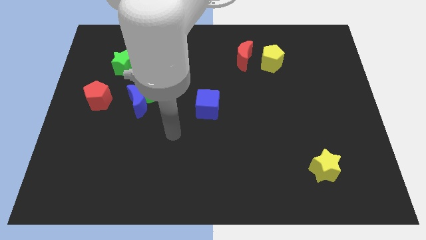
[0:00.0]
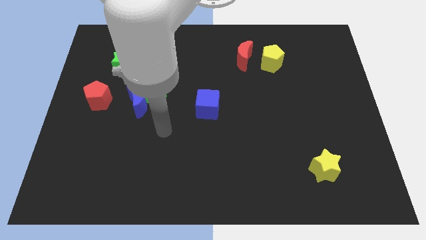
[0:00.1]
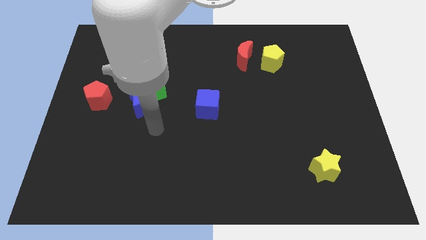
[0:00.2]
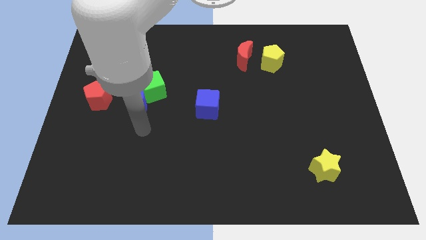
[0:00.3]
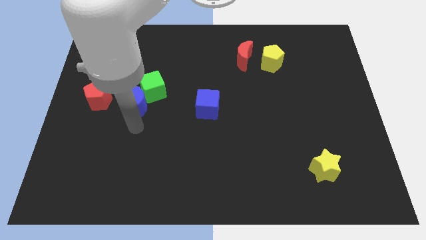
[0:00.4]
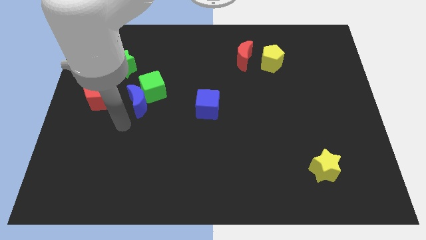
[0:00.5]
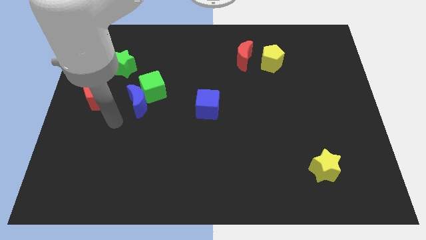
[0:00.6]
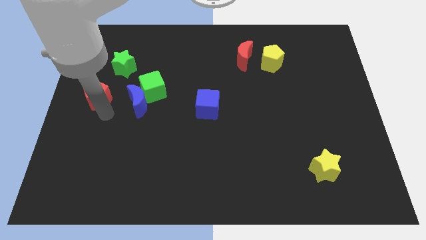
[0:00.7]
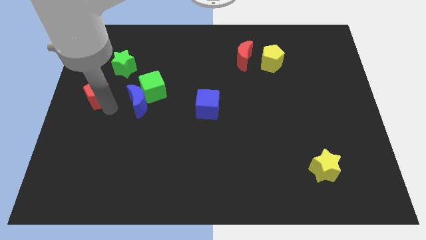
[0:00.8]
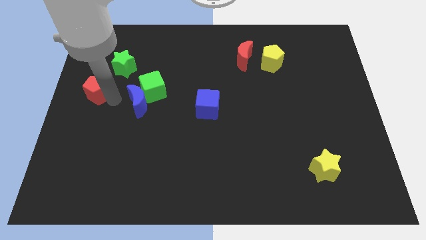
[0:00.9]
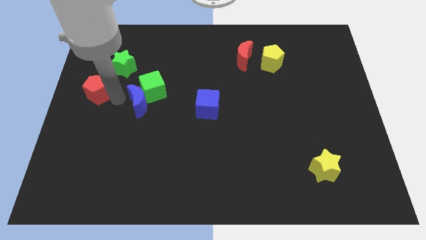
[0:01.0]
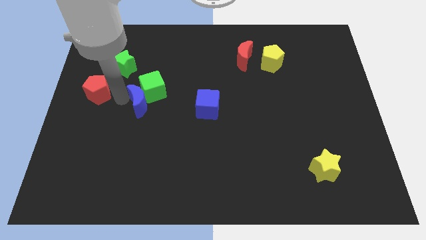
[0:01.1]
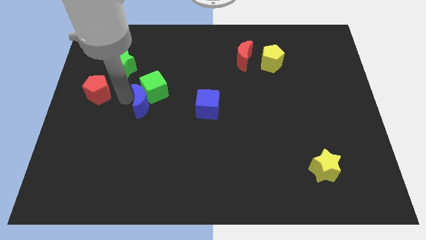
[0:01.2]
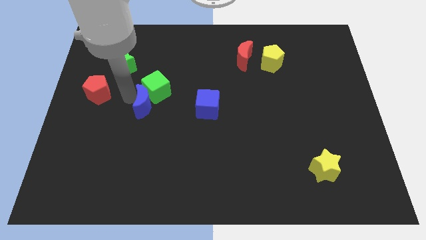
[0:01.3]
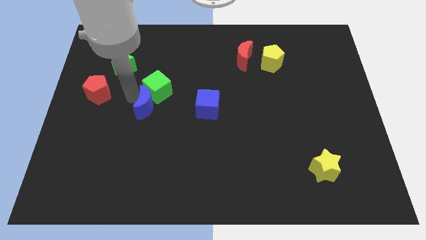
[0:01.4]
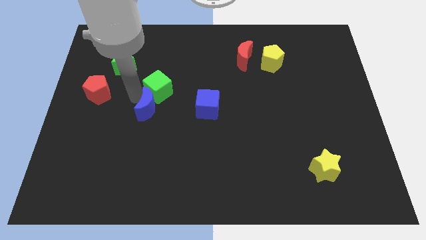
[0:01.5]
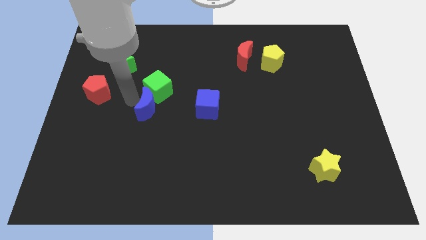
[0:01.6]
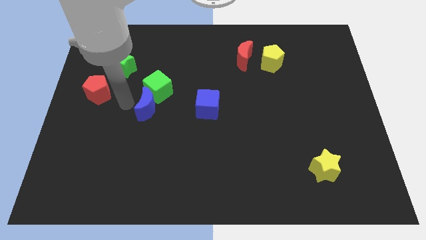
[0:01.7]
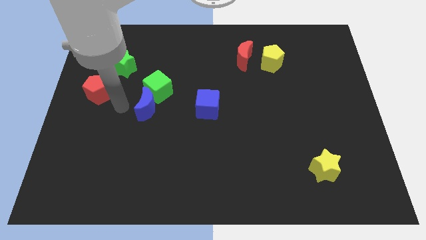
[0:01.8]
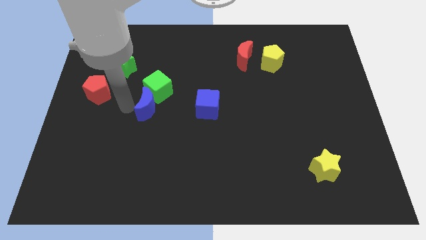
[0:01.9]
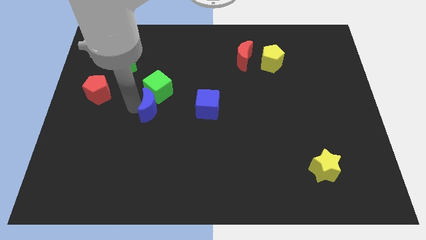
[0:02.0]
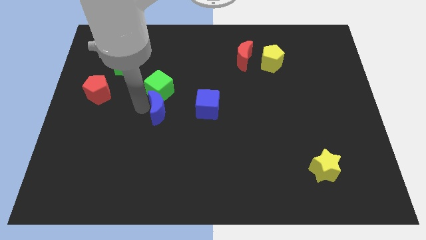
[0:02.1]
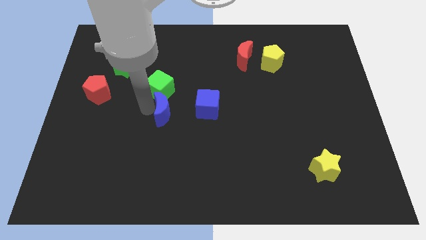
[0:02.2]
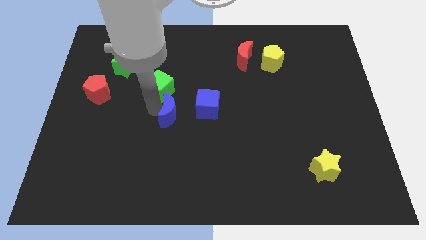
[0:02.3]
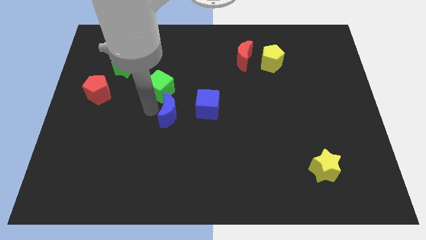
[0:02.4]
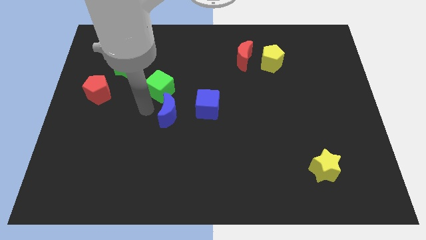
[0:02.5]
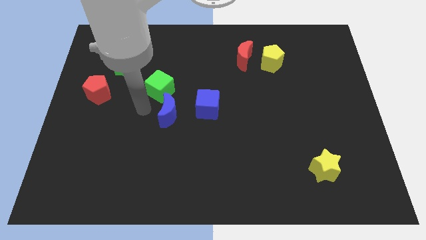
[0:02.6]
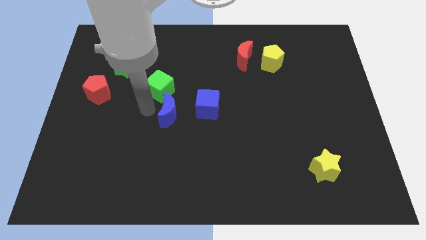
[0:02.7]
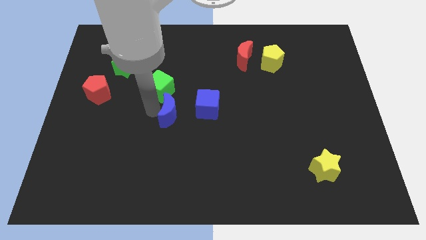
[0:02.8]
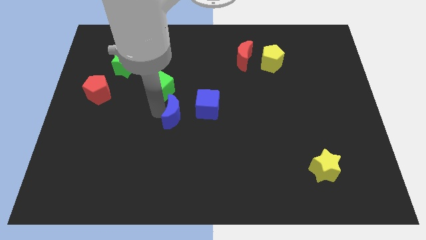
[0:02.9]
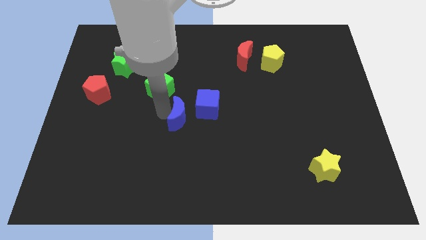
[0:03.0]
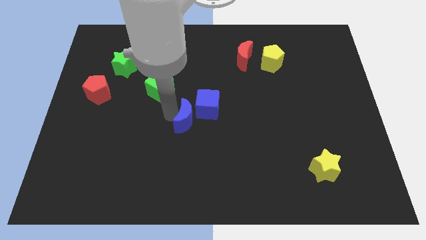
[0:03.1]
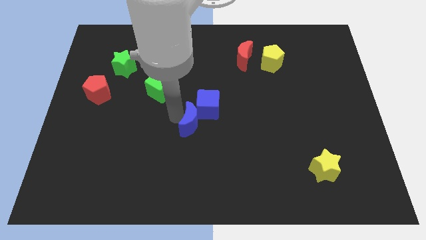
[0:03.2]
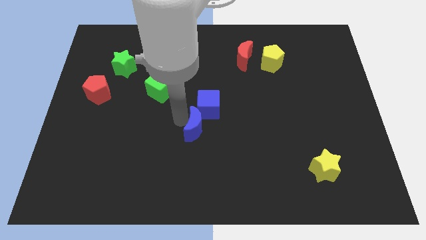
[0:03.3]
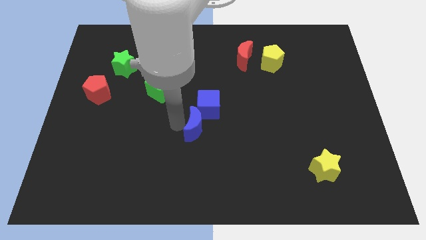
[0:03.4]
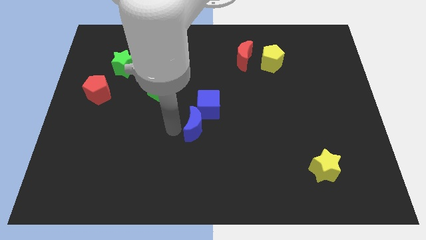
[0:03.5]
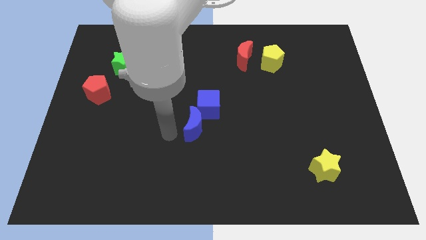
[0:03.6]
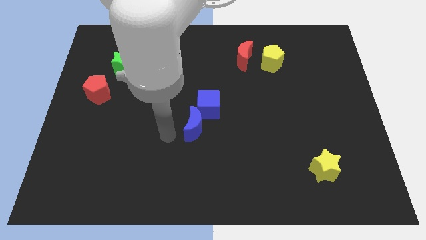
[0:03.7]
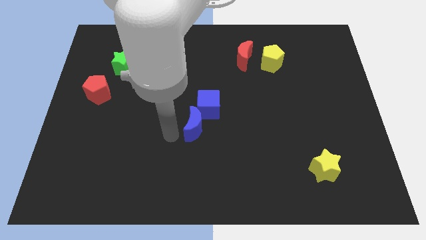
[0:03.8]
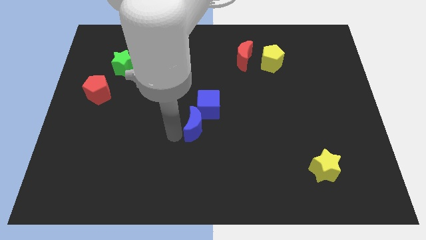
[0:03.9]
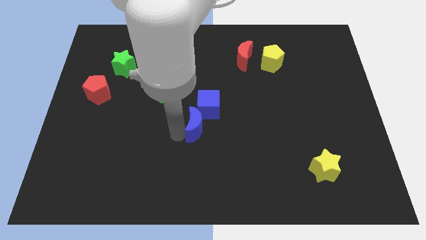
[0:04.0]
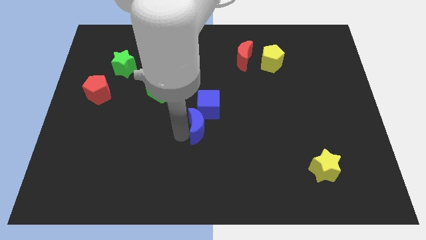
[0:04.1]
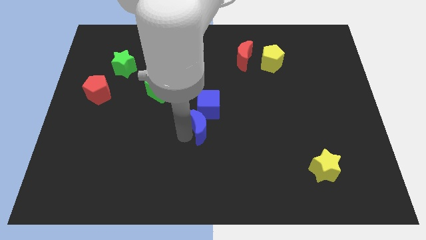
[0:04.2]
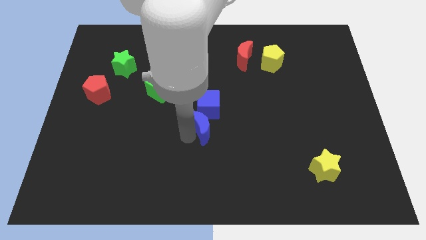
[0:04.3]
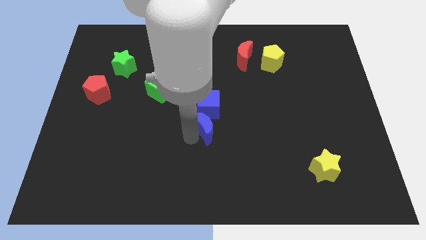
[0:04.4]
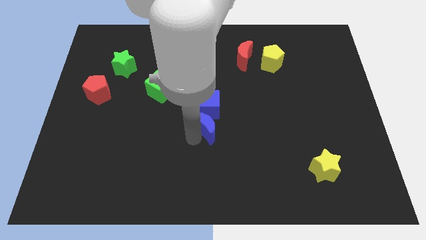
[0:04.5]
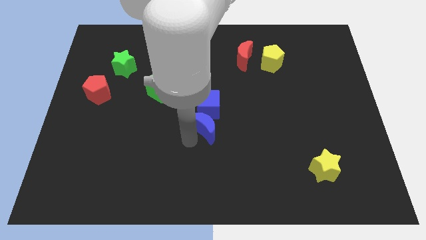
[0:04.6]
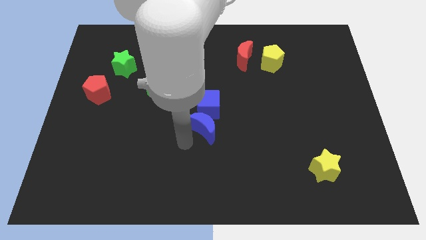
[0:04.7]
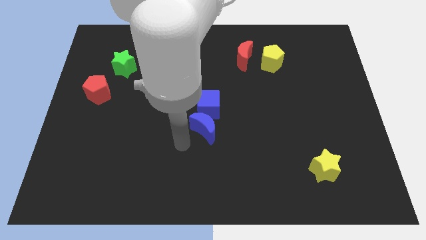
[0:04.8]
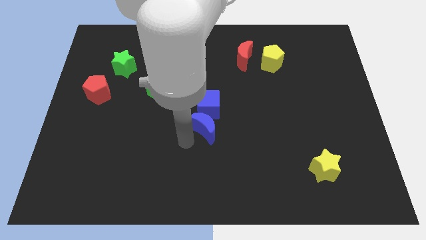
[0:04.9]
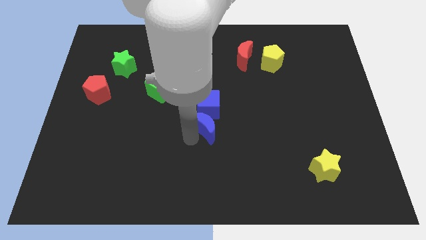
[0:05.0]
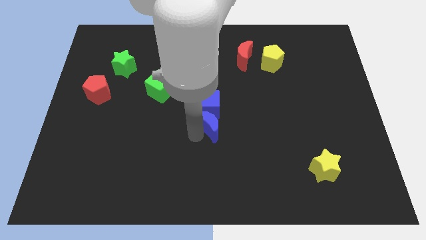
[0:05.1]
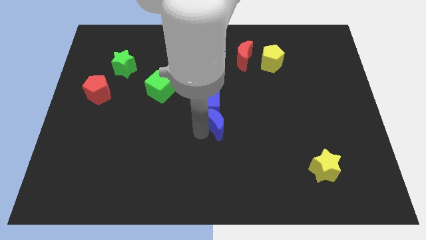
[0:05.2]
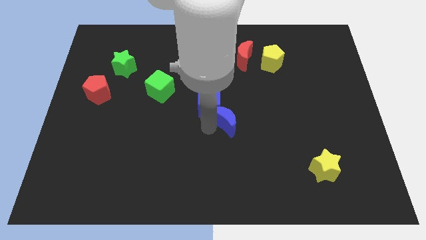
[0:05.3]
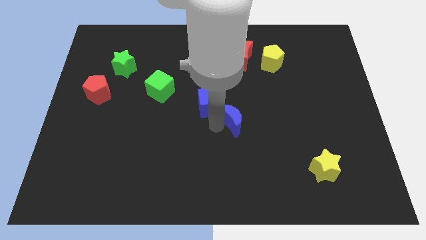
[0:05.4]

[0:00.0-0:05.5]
move the blue moon right

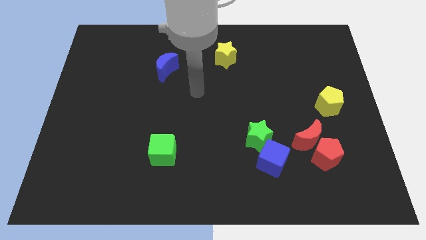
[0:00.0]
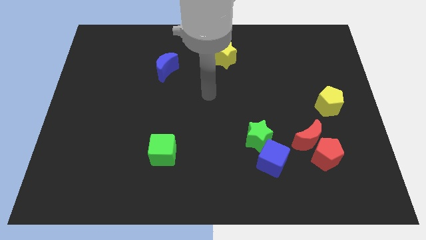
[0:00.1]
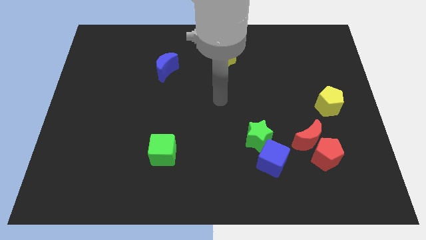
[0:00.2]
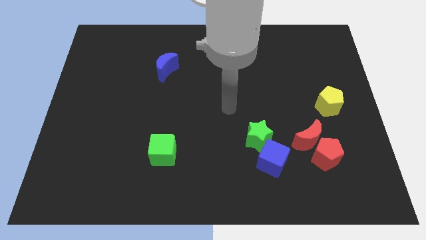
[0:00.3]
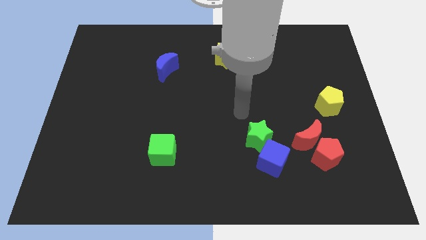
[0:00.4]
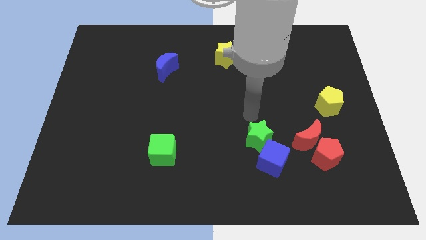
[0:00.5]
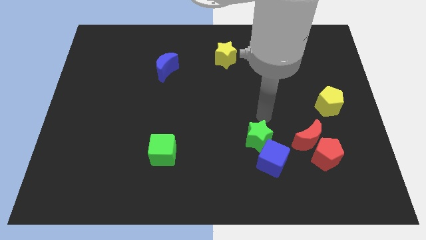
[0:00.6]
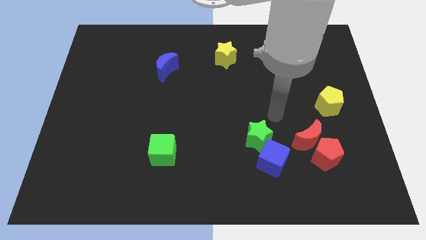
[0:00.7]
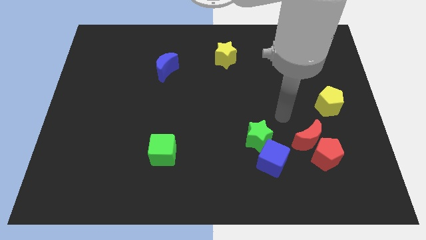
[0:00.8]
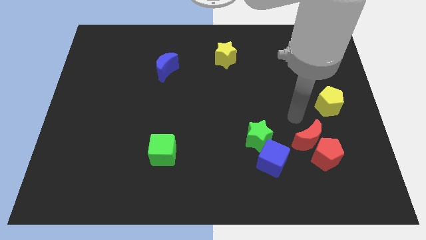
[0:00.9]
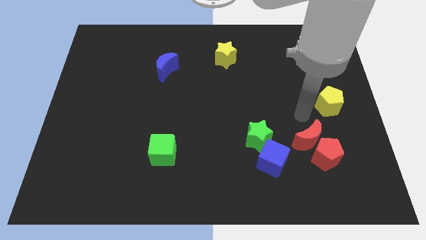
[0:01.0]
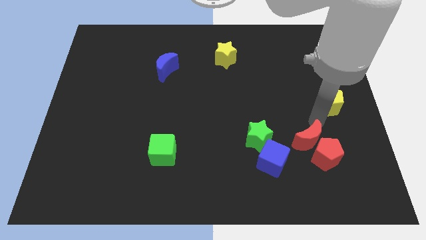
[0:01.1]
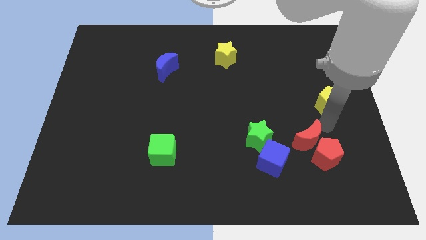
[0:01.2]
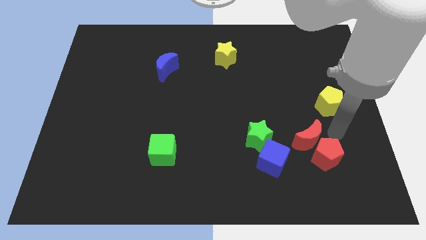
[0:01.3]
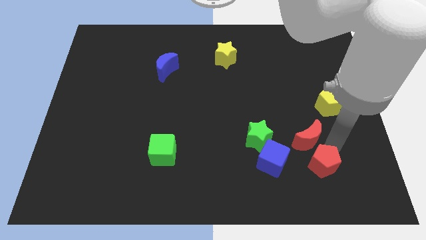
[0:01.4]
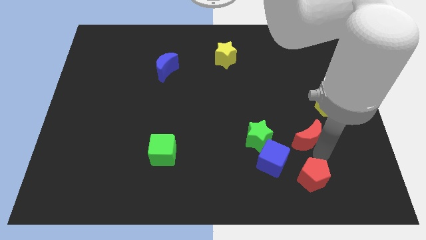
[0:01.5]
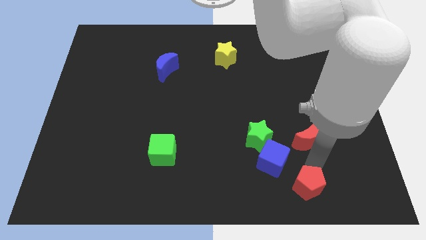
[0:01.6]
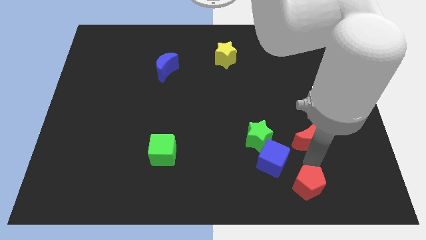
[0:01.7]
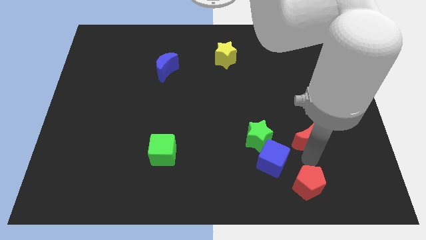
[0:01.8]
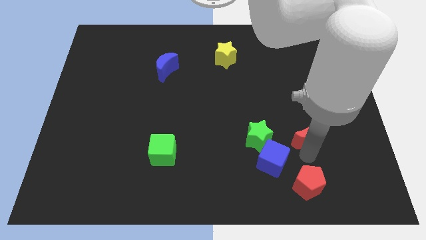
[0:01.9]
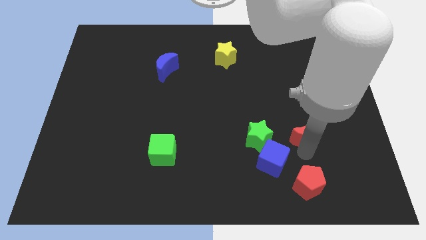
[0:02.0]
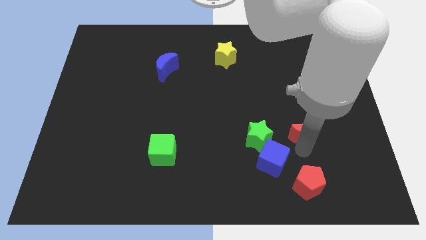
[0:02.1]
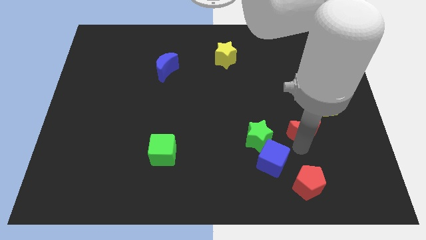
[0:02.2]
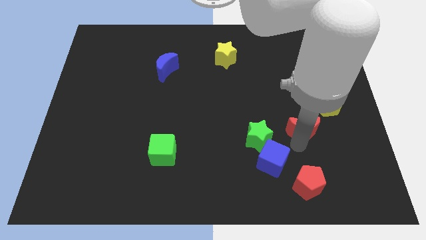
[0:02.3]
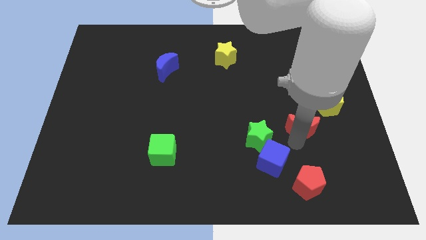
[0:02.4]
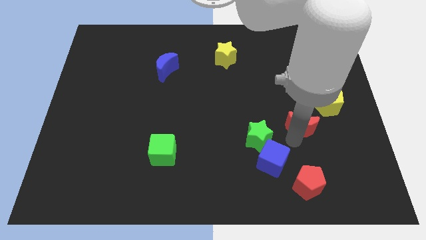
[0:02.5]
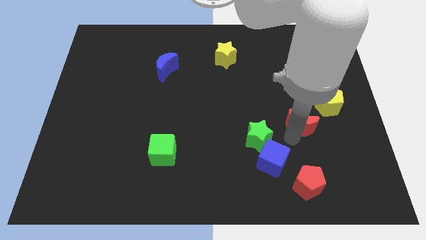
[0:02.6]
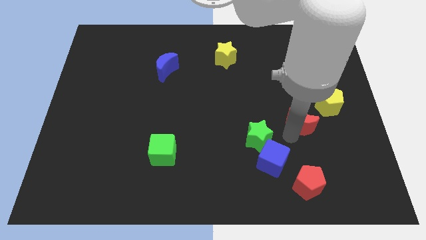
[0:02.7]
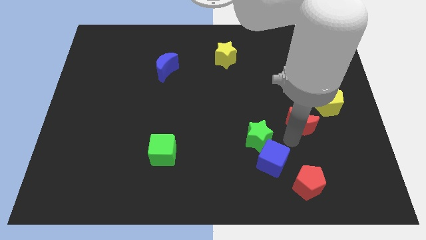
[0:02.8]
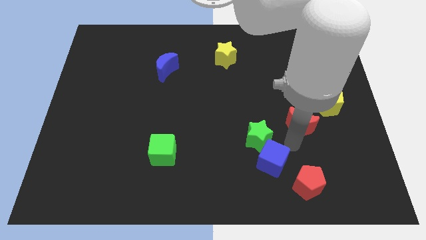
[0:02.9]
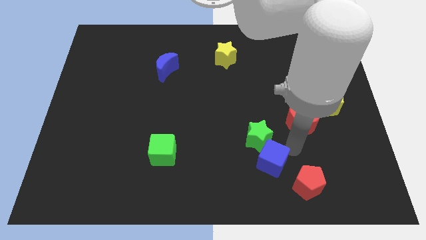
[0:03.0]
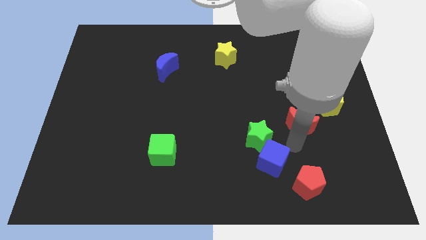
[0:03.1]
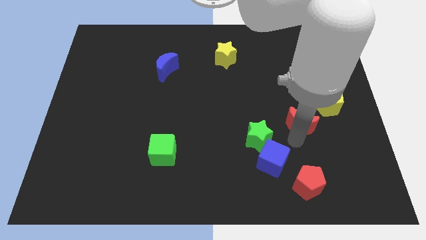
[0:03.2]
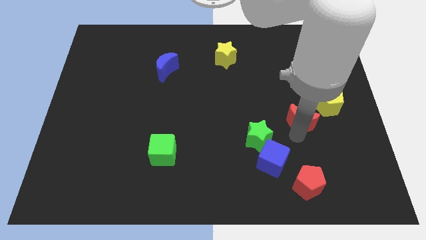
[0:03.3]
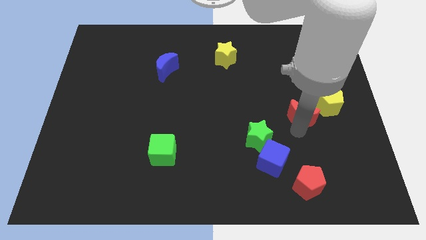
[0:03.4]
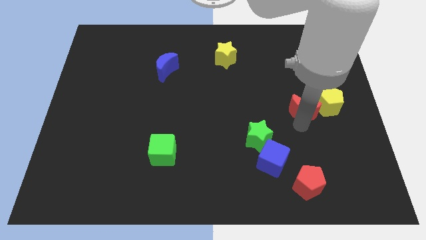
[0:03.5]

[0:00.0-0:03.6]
push the red moon upwards slightly
